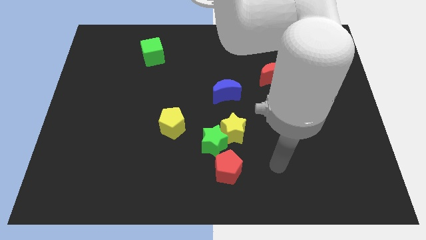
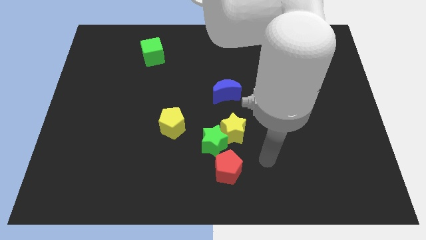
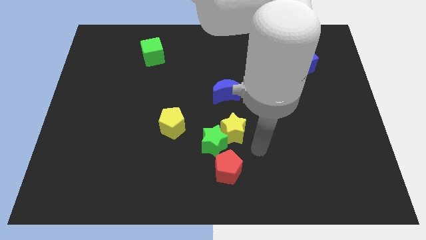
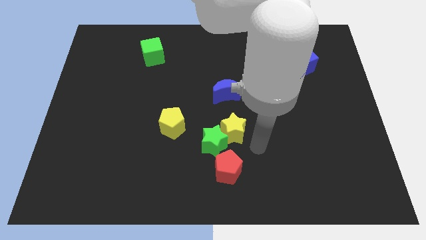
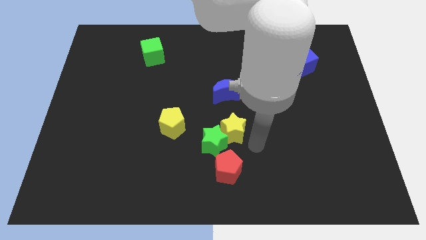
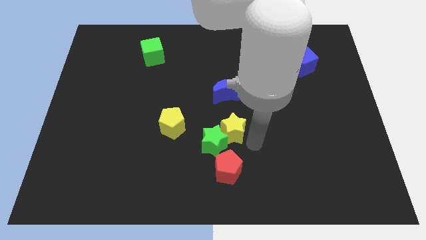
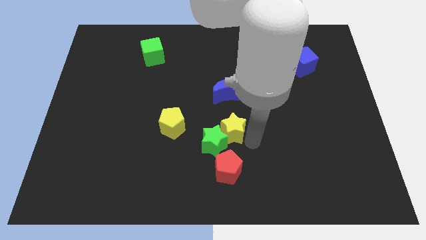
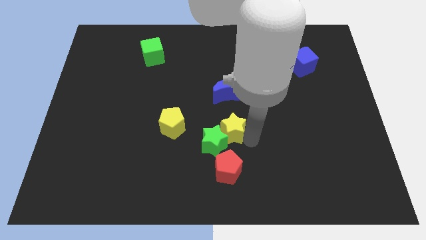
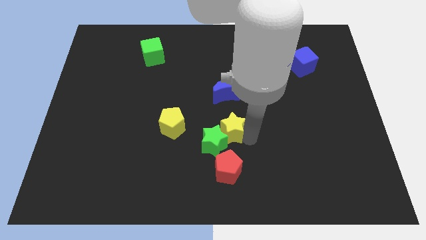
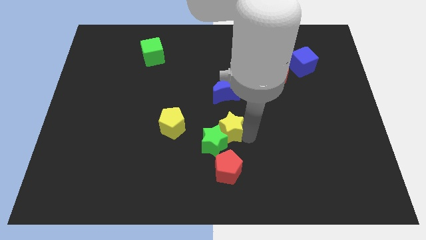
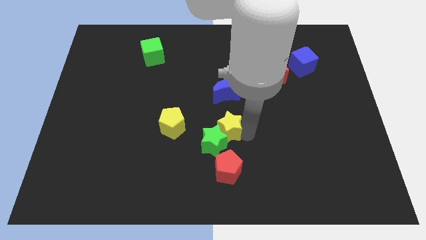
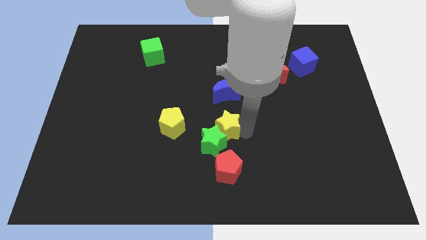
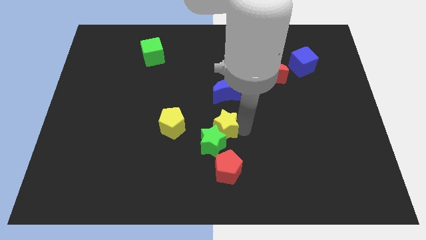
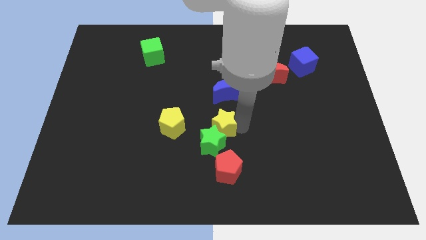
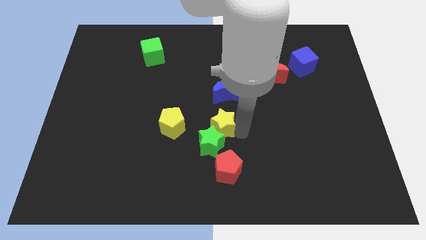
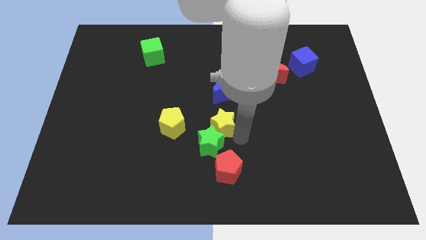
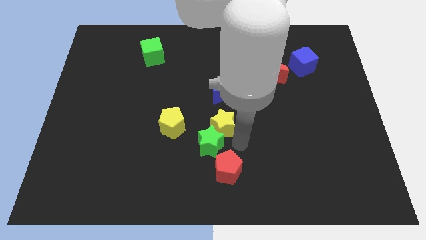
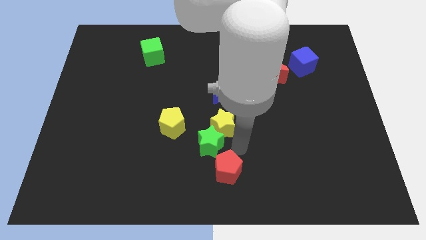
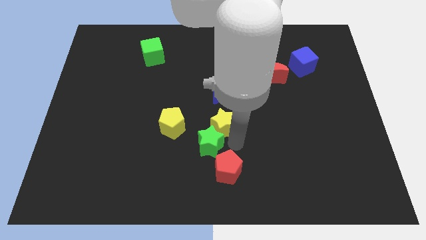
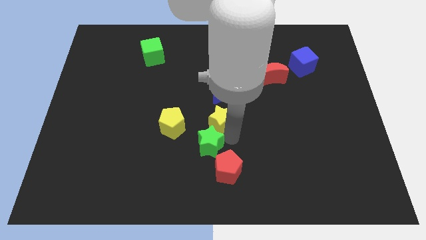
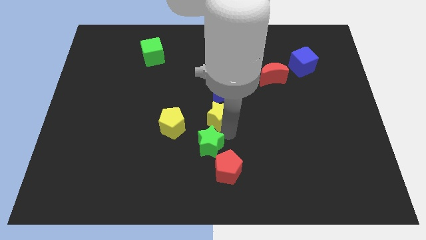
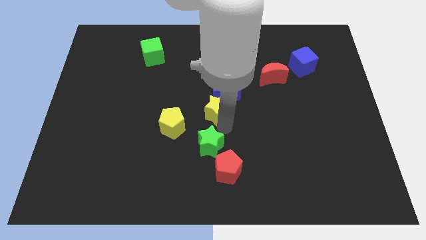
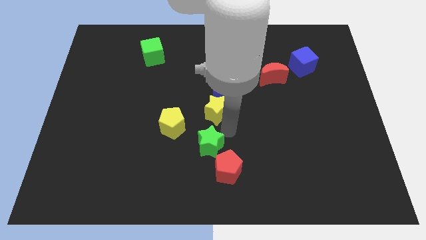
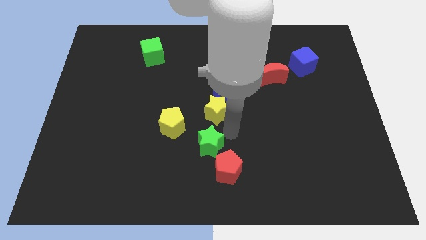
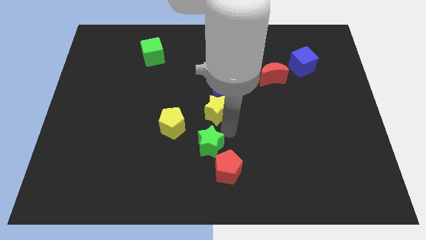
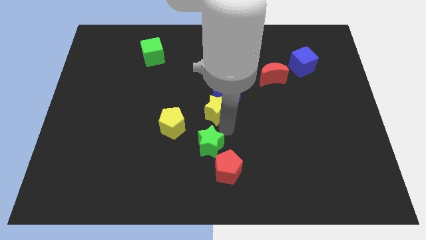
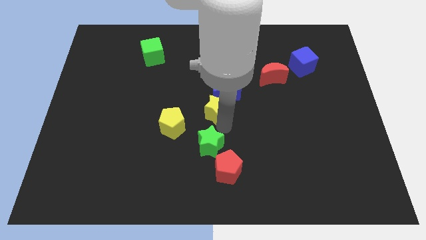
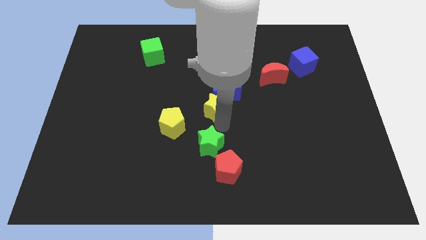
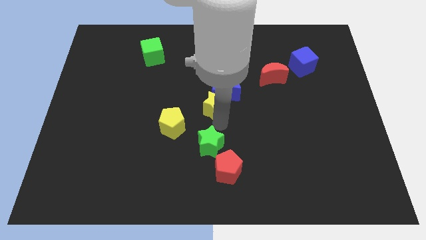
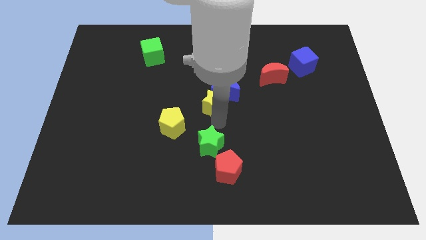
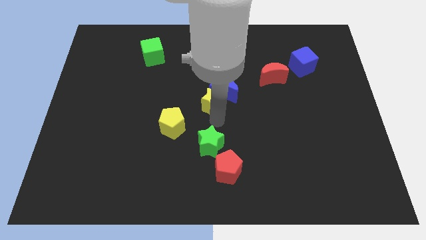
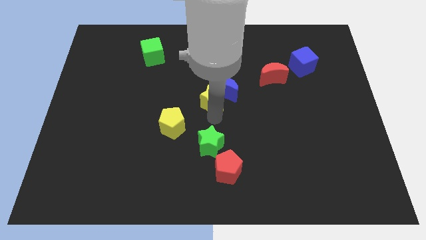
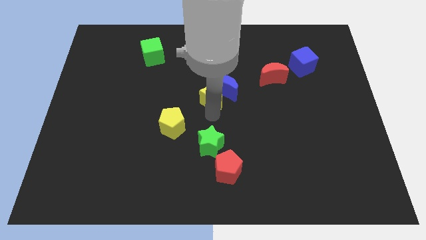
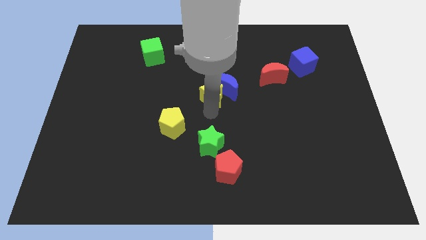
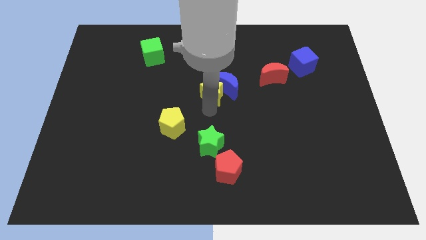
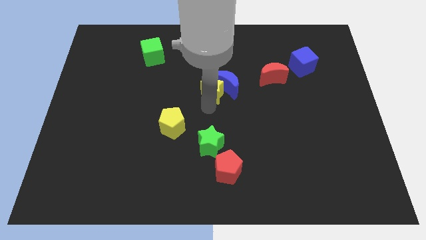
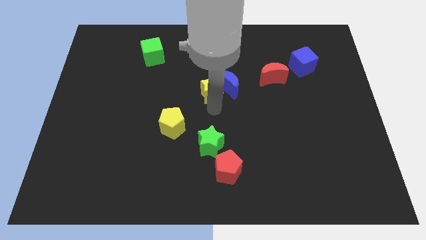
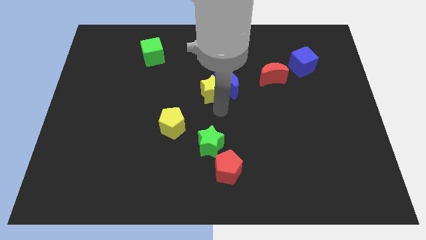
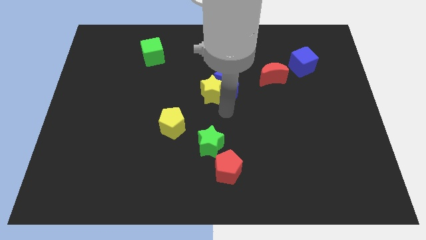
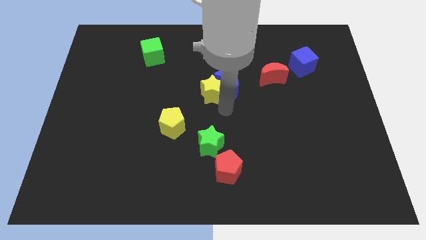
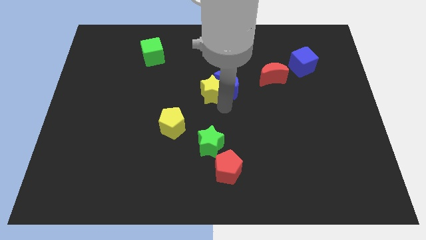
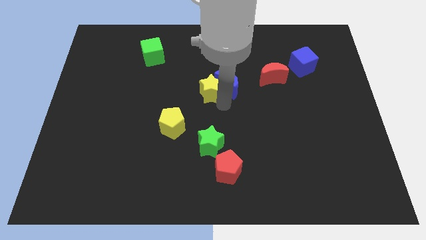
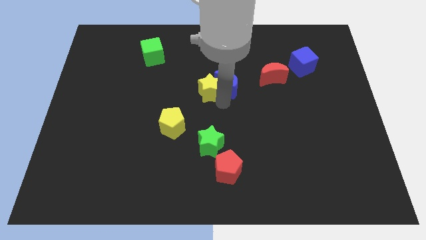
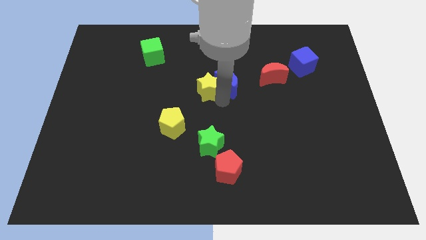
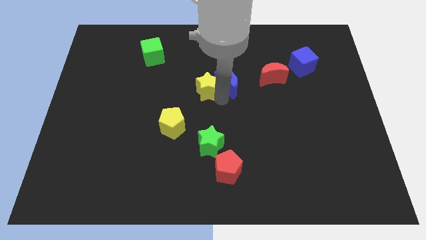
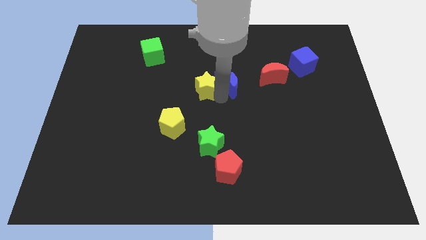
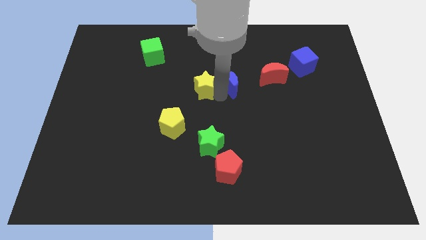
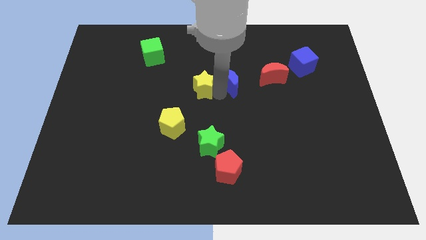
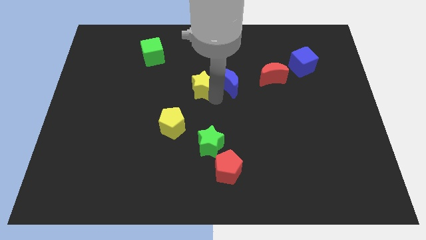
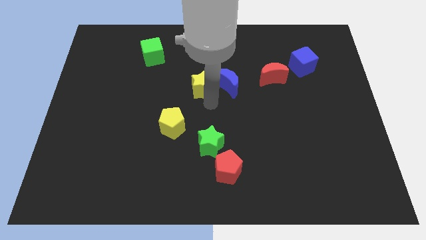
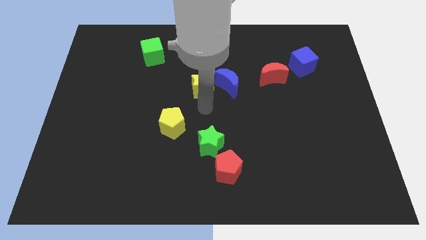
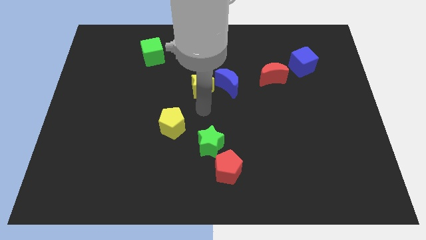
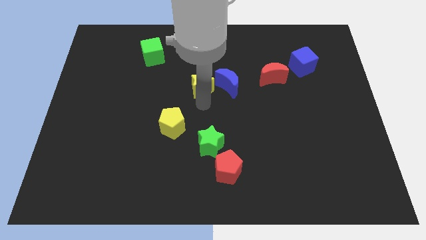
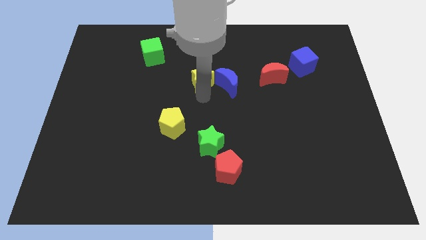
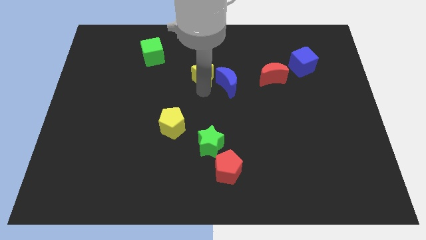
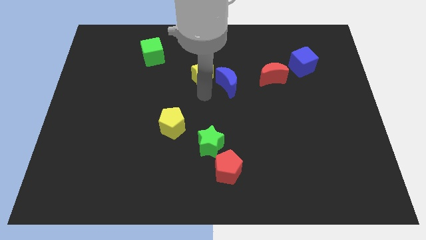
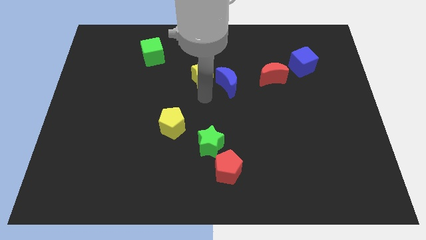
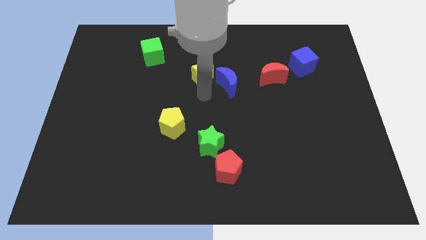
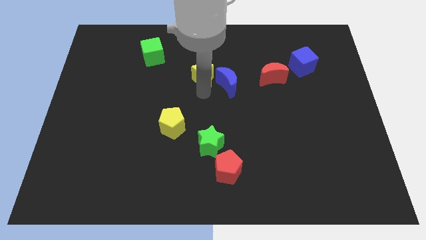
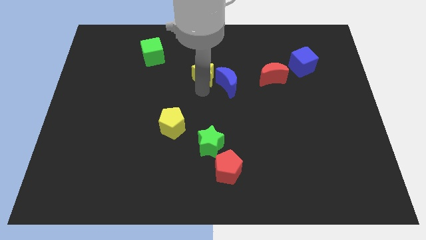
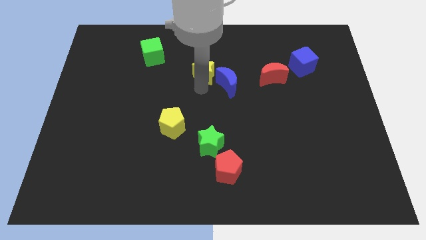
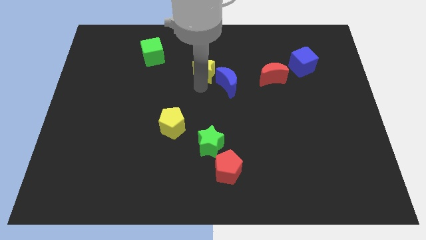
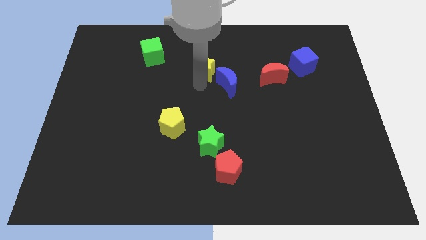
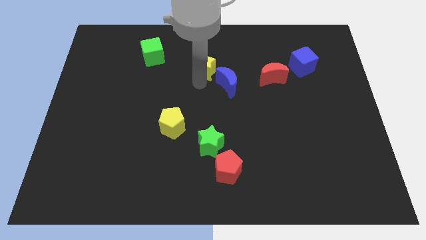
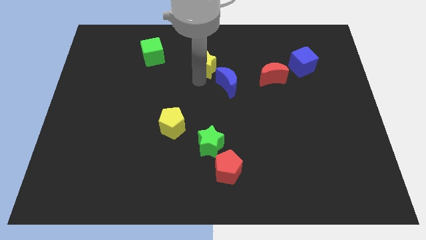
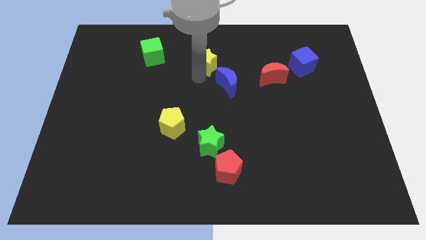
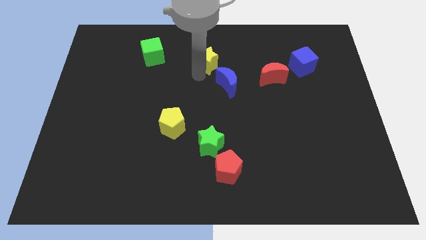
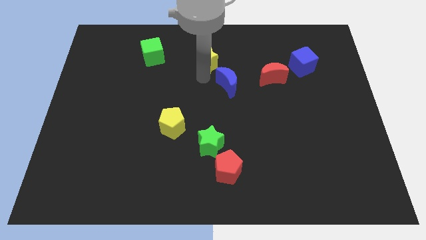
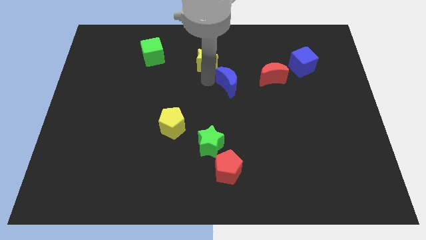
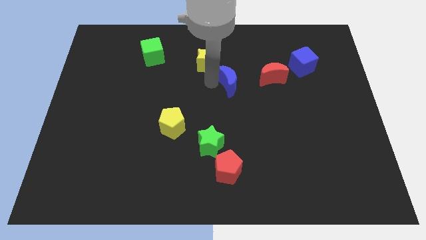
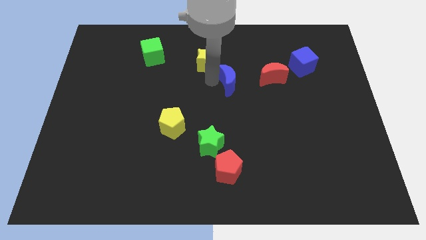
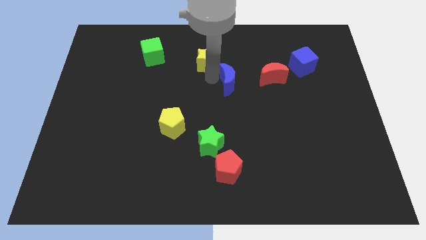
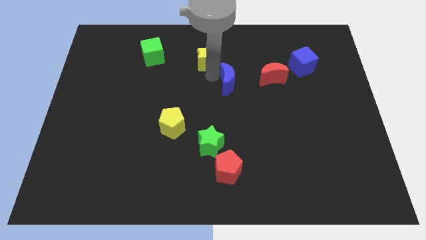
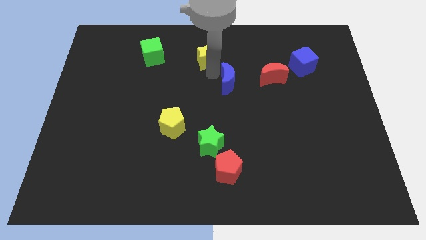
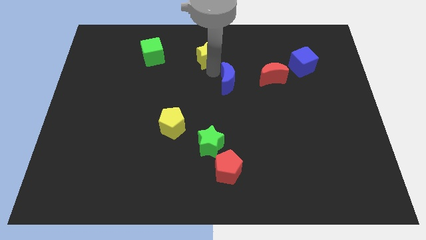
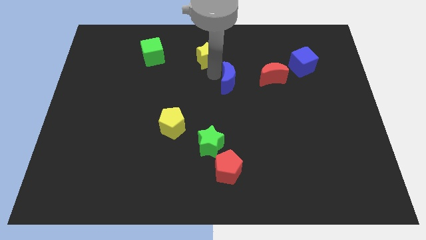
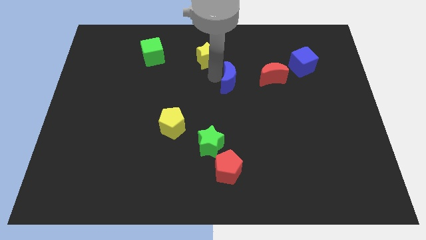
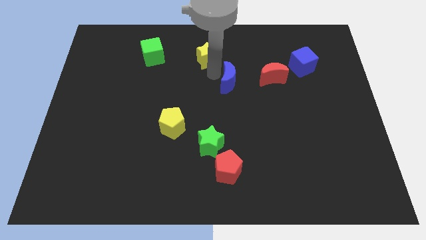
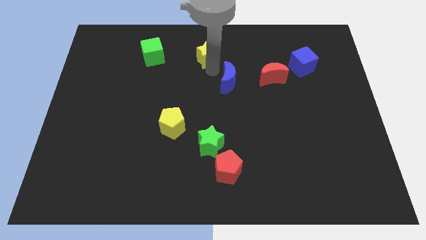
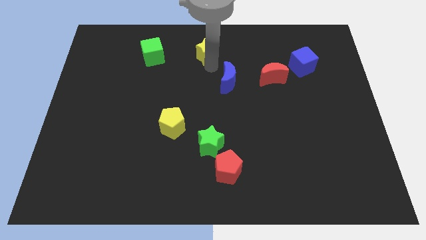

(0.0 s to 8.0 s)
push the yellow star to the towards your base
